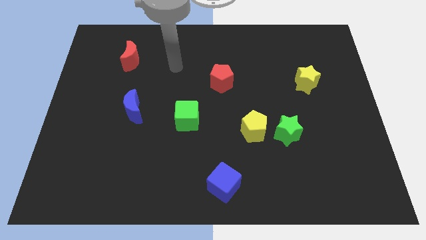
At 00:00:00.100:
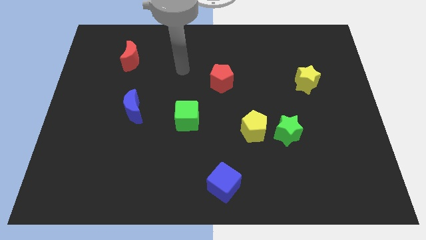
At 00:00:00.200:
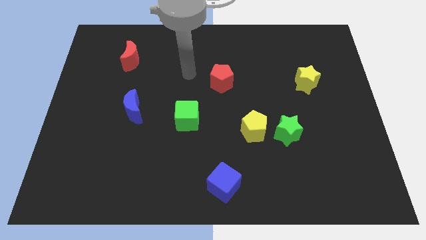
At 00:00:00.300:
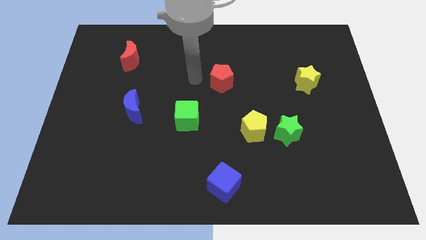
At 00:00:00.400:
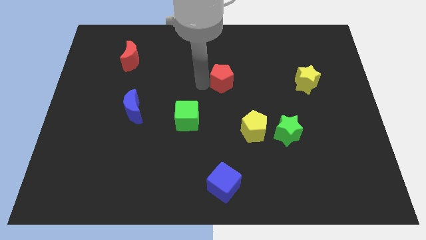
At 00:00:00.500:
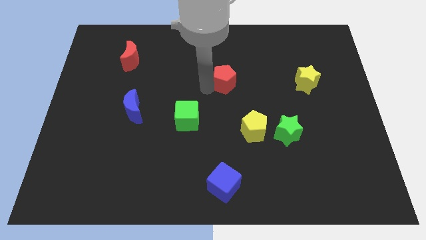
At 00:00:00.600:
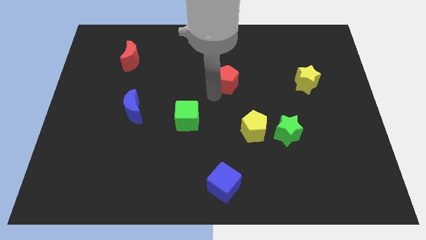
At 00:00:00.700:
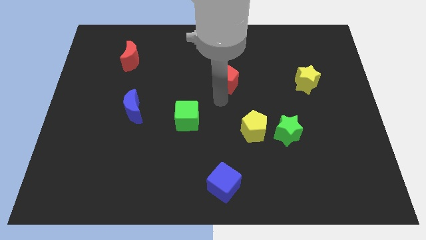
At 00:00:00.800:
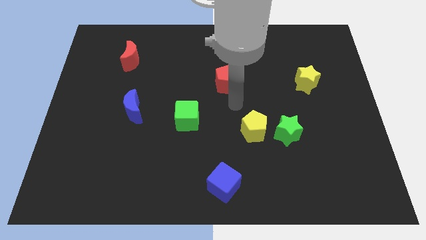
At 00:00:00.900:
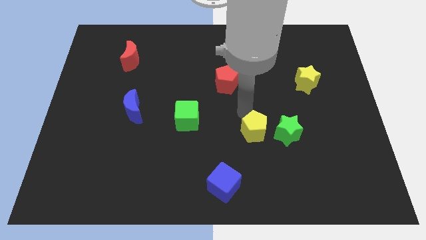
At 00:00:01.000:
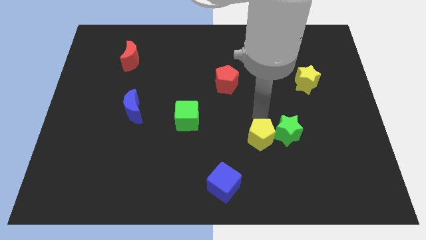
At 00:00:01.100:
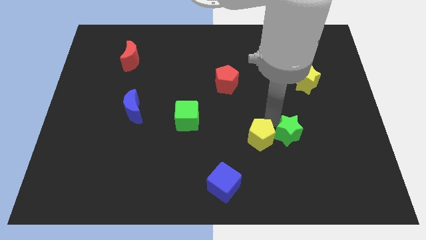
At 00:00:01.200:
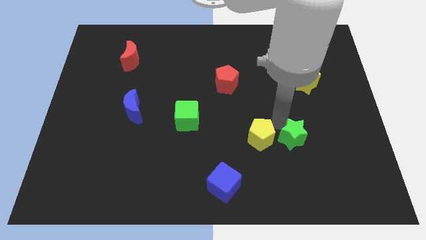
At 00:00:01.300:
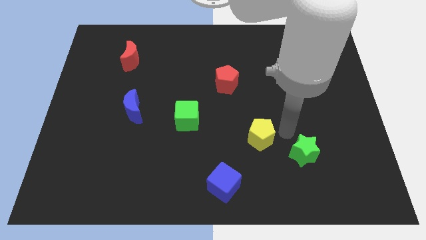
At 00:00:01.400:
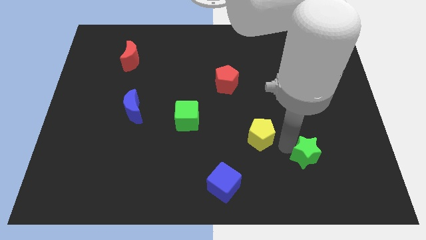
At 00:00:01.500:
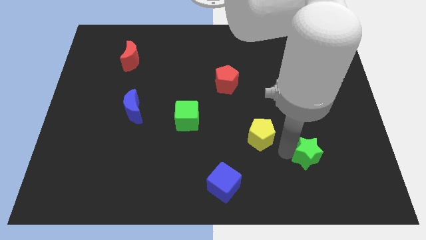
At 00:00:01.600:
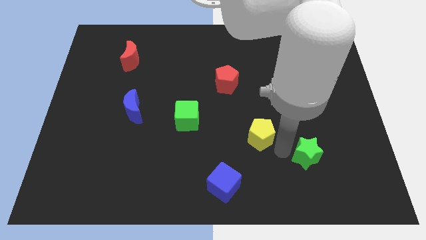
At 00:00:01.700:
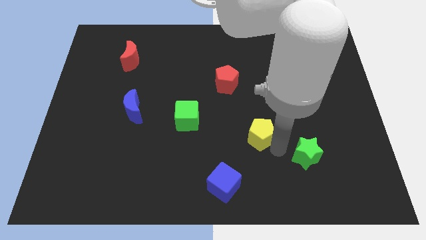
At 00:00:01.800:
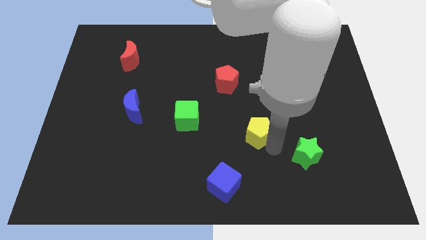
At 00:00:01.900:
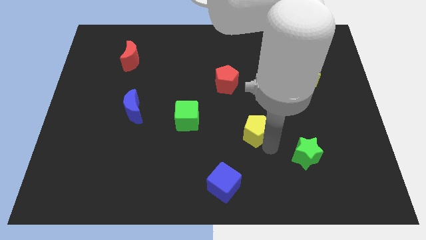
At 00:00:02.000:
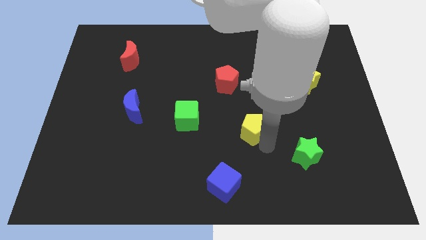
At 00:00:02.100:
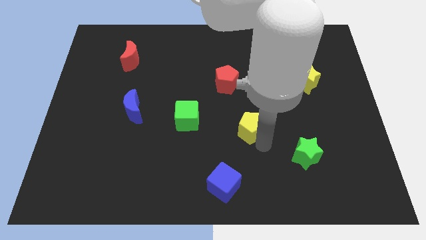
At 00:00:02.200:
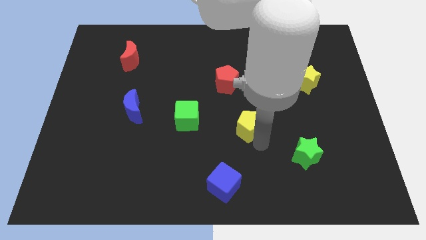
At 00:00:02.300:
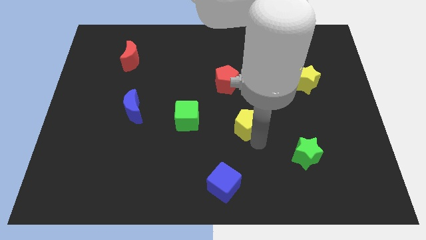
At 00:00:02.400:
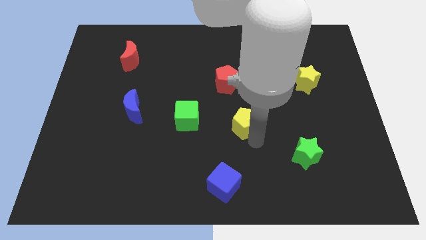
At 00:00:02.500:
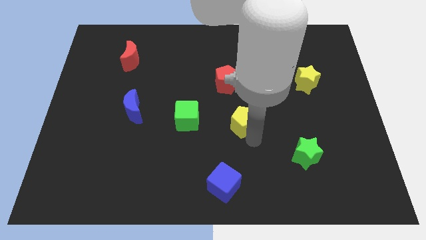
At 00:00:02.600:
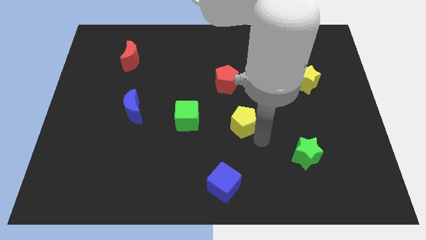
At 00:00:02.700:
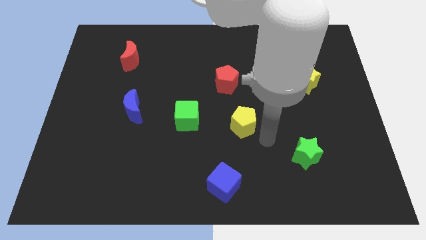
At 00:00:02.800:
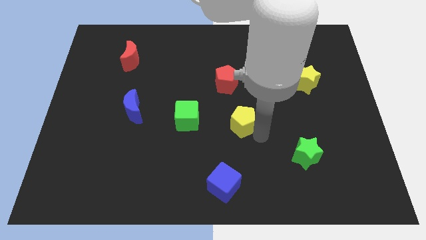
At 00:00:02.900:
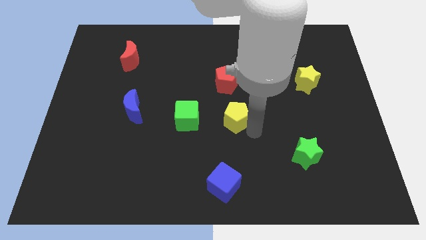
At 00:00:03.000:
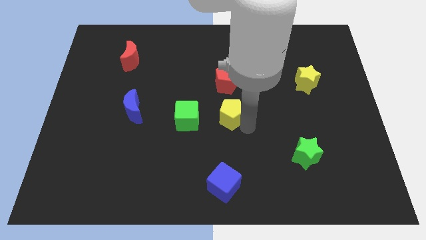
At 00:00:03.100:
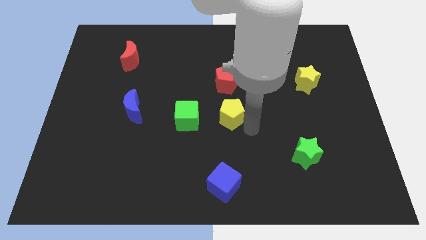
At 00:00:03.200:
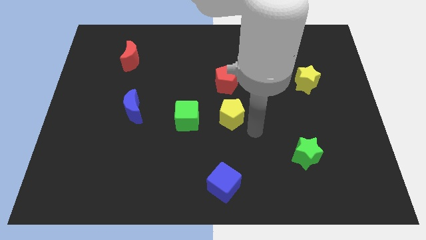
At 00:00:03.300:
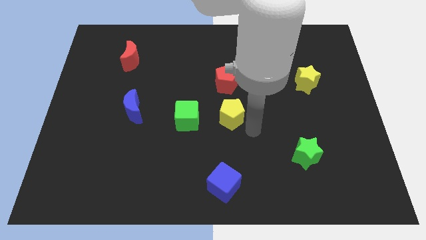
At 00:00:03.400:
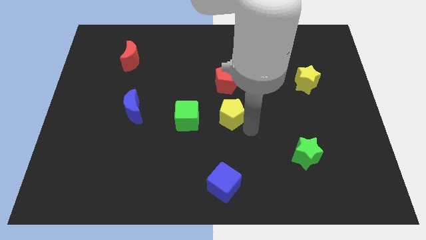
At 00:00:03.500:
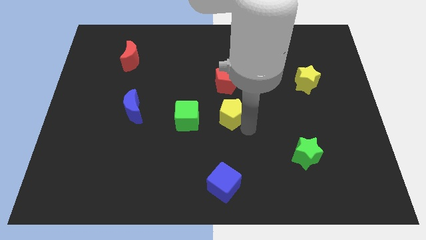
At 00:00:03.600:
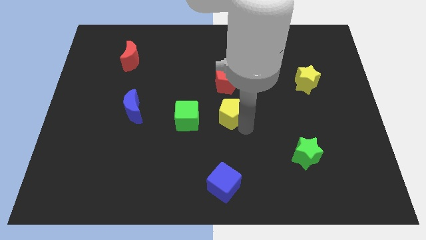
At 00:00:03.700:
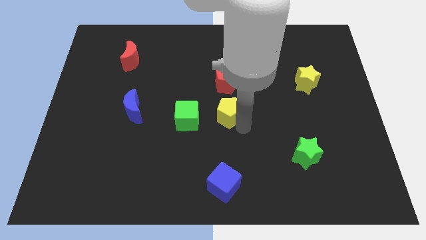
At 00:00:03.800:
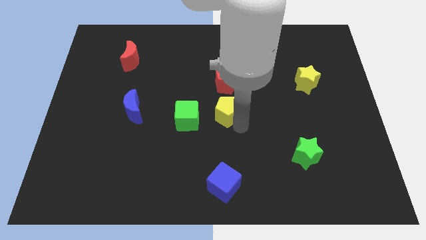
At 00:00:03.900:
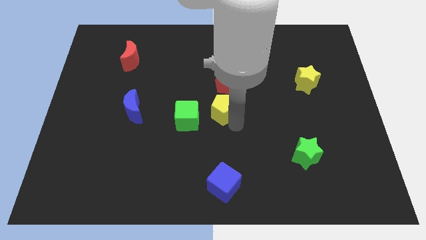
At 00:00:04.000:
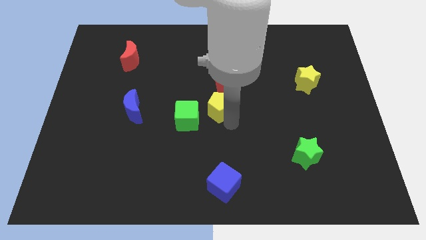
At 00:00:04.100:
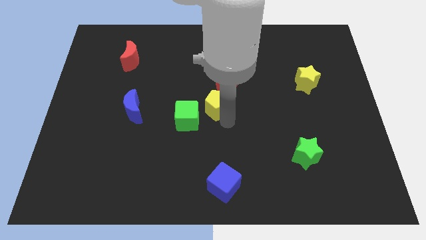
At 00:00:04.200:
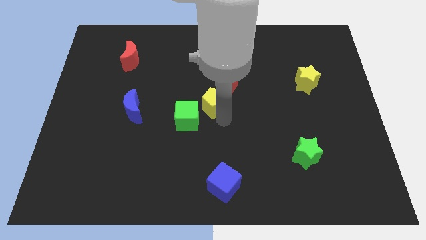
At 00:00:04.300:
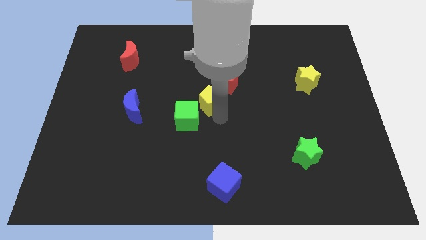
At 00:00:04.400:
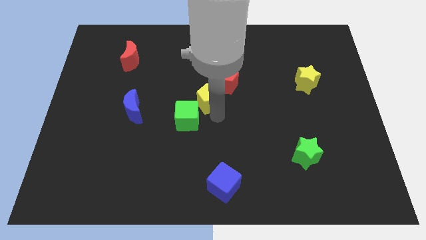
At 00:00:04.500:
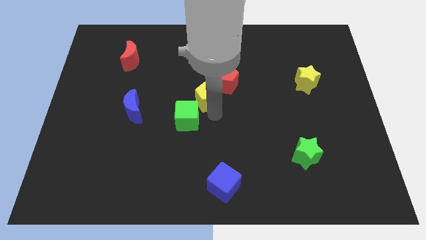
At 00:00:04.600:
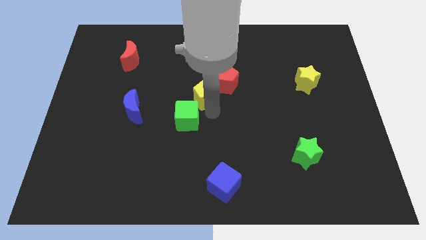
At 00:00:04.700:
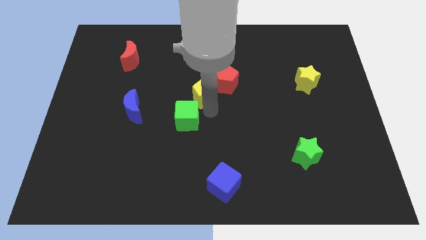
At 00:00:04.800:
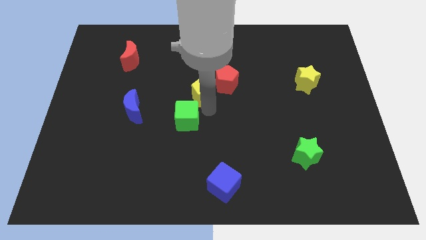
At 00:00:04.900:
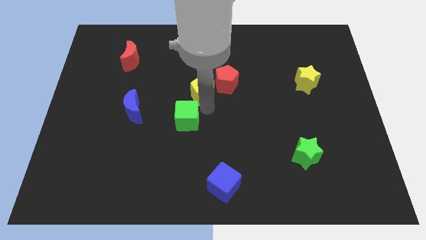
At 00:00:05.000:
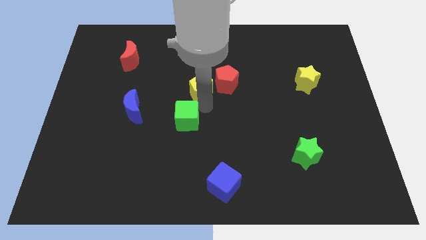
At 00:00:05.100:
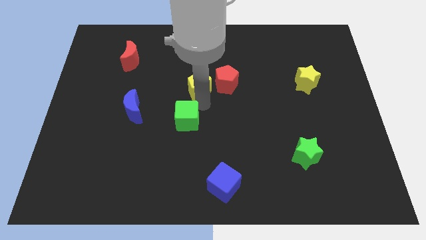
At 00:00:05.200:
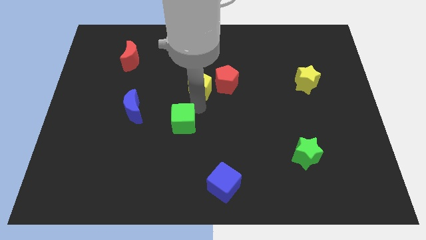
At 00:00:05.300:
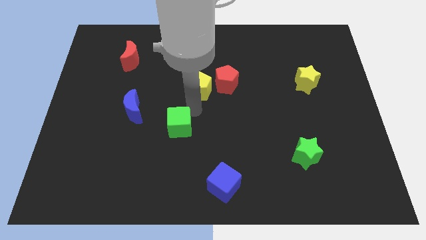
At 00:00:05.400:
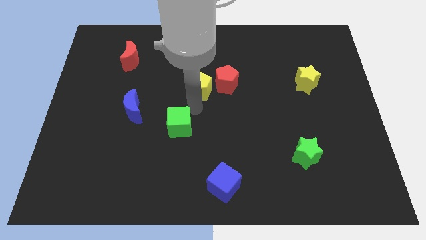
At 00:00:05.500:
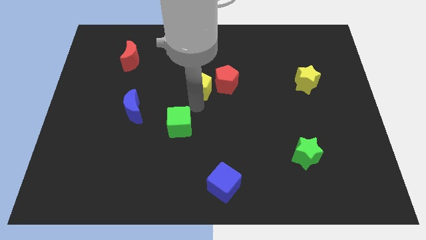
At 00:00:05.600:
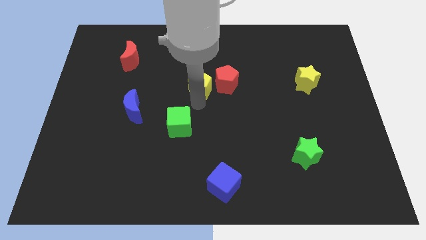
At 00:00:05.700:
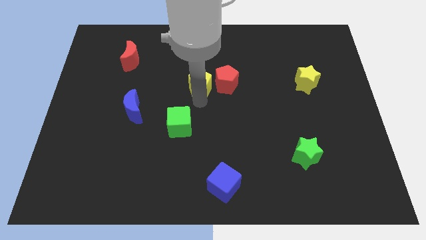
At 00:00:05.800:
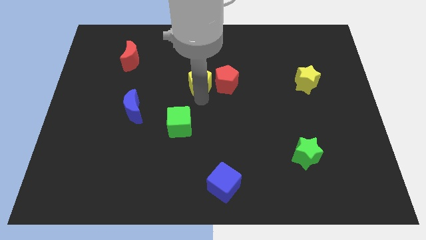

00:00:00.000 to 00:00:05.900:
slide the yellow pentagon to the top left side of the red pentagon

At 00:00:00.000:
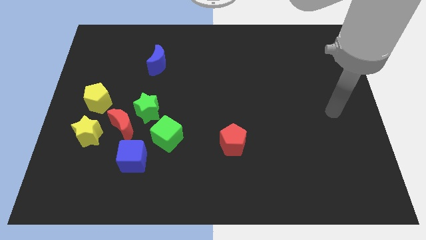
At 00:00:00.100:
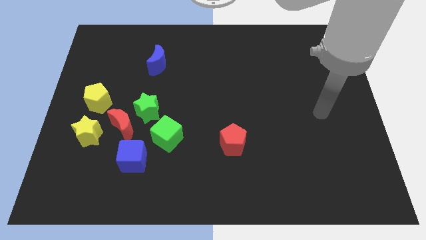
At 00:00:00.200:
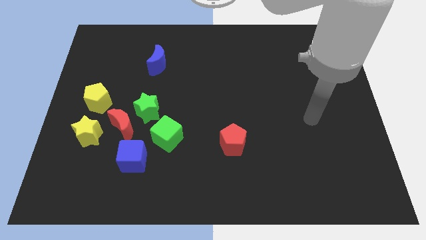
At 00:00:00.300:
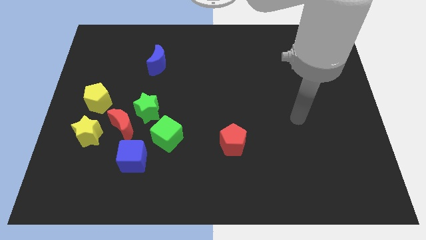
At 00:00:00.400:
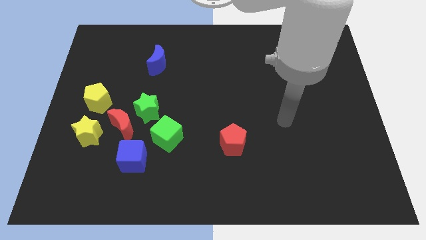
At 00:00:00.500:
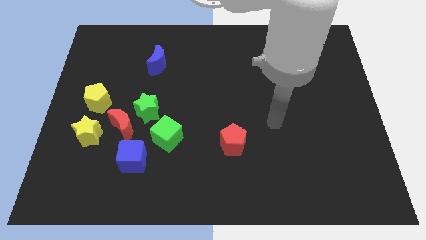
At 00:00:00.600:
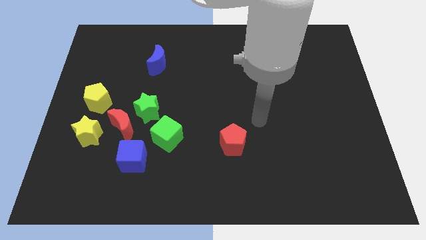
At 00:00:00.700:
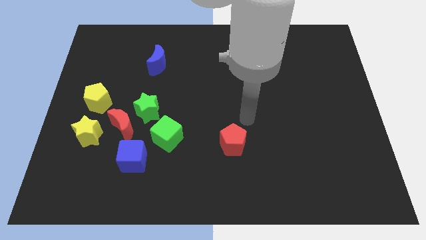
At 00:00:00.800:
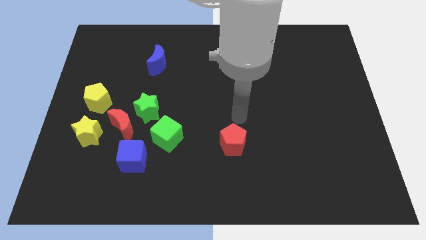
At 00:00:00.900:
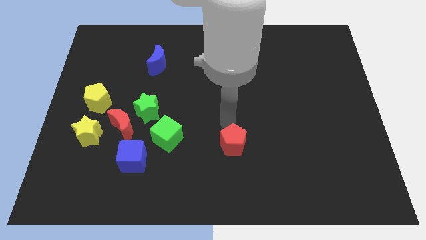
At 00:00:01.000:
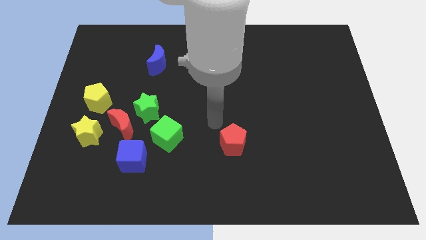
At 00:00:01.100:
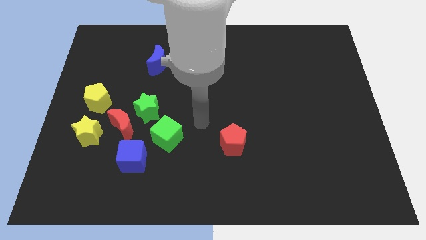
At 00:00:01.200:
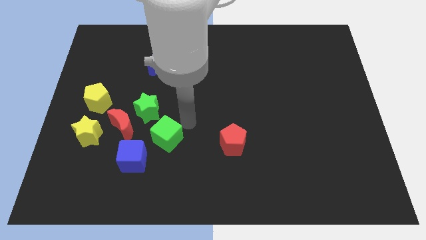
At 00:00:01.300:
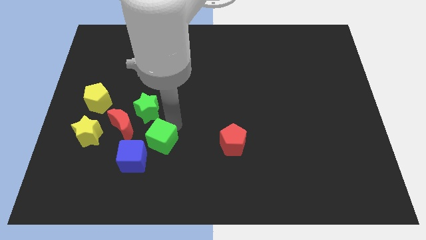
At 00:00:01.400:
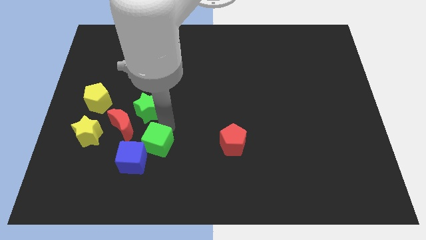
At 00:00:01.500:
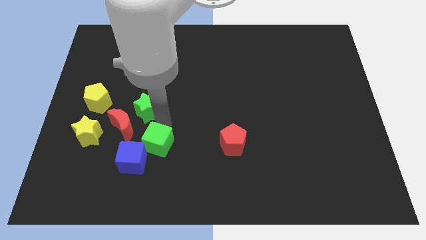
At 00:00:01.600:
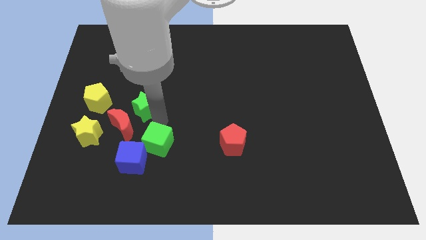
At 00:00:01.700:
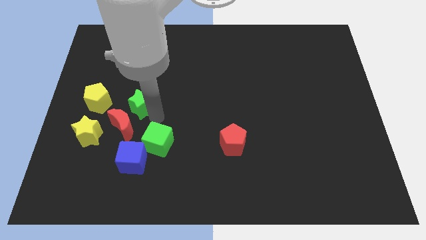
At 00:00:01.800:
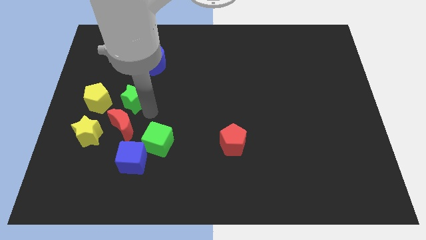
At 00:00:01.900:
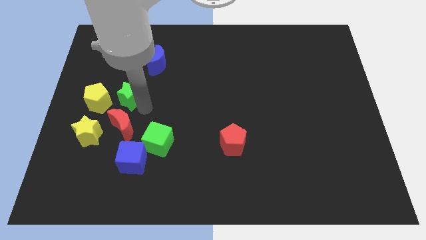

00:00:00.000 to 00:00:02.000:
push the green star diagonally up and to the right of the yellow pentagon

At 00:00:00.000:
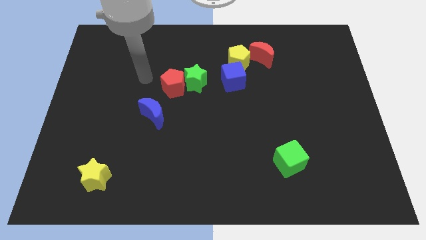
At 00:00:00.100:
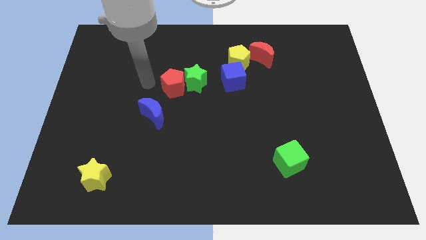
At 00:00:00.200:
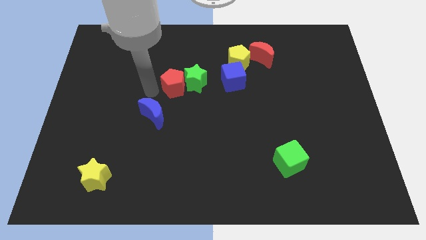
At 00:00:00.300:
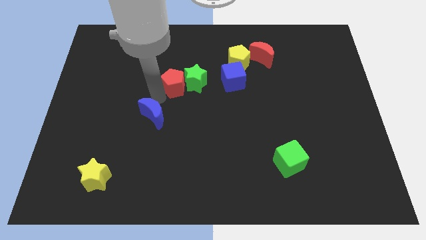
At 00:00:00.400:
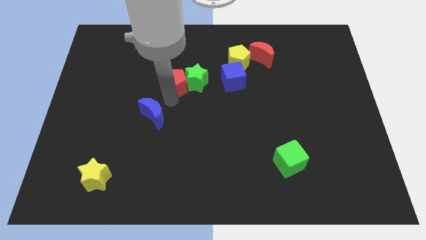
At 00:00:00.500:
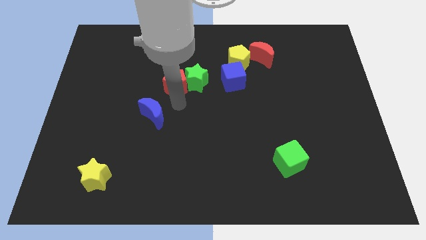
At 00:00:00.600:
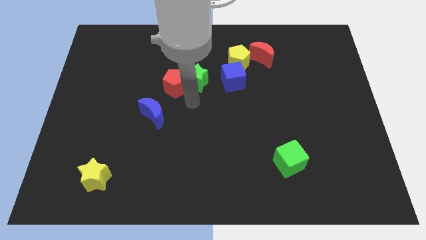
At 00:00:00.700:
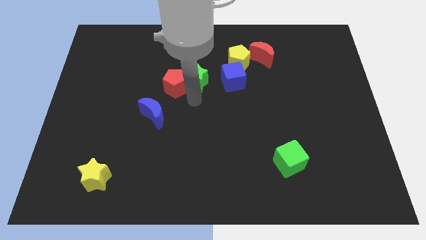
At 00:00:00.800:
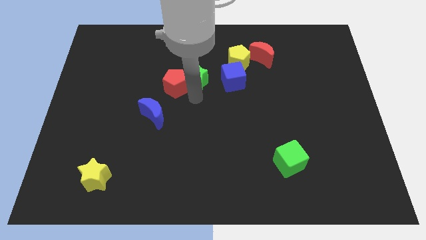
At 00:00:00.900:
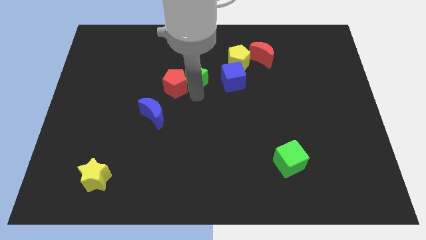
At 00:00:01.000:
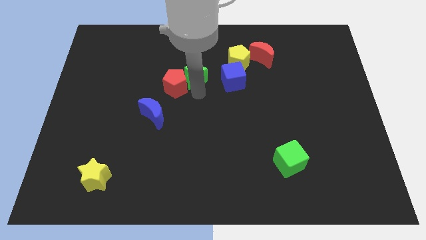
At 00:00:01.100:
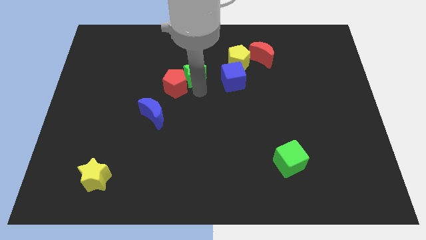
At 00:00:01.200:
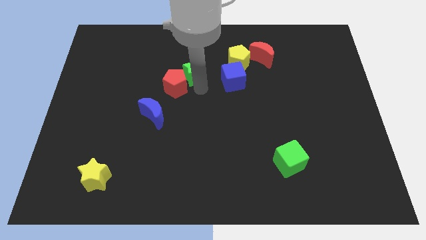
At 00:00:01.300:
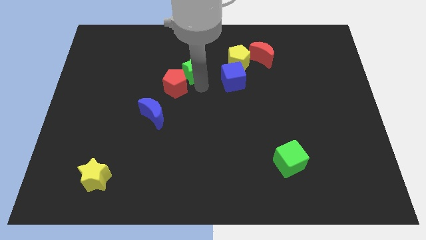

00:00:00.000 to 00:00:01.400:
slide the green star just left of the yellow pentagon
